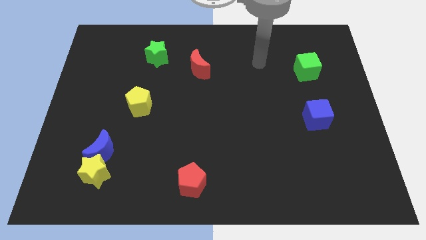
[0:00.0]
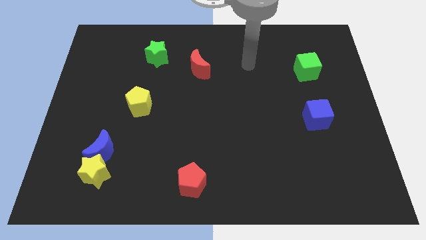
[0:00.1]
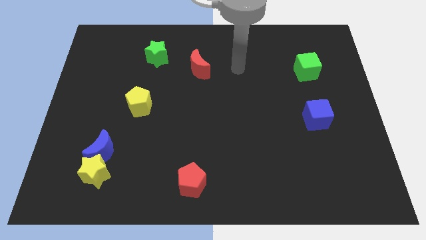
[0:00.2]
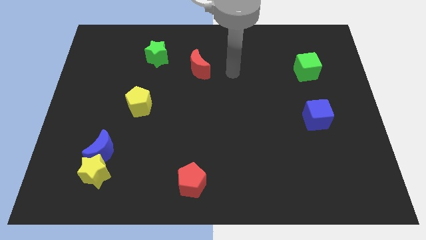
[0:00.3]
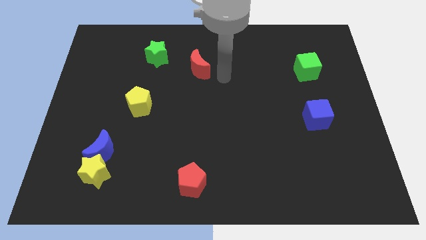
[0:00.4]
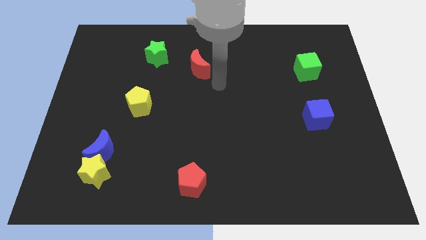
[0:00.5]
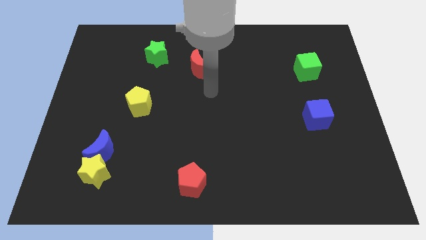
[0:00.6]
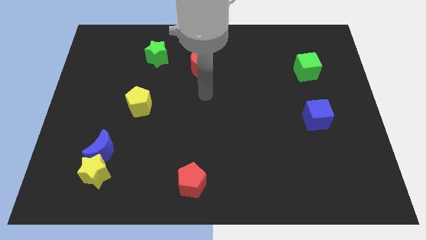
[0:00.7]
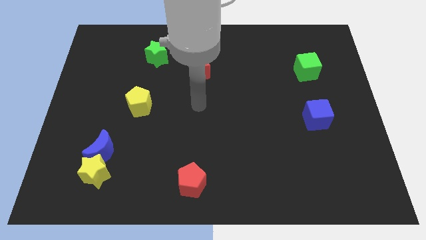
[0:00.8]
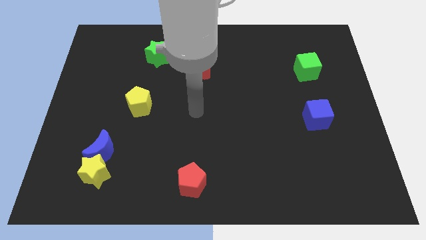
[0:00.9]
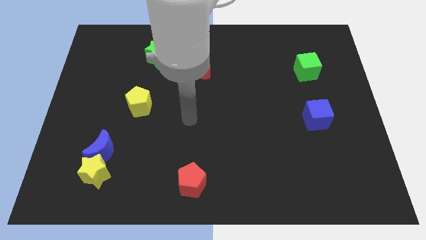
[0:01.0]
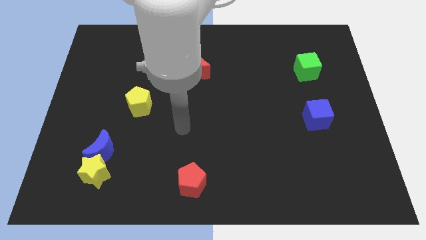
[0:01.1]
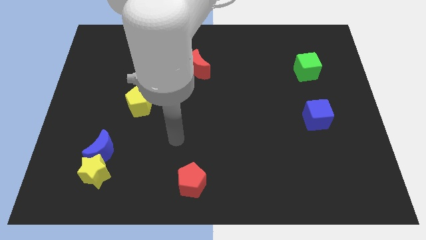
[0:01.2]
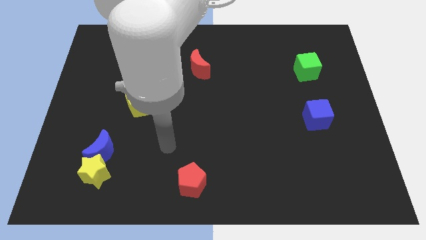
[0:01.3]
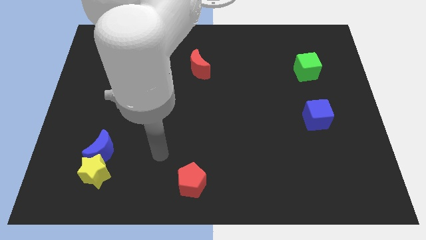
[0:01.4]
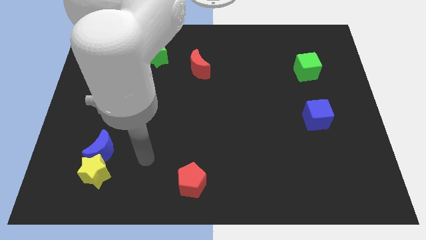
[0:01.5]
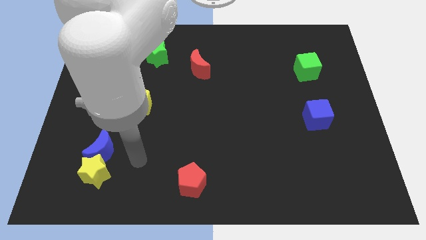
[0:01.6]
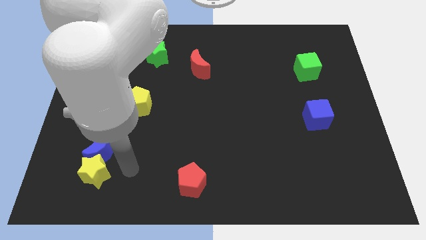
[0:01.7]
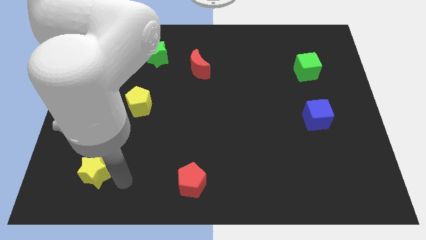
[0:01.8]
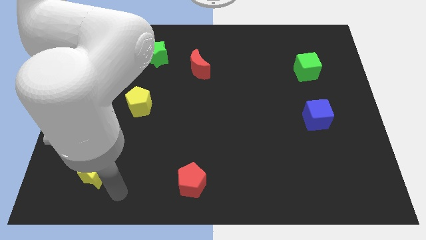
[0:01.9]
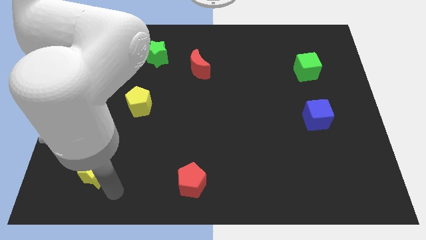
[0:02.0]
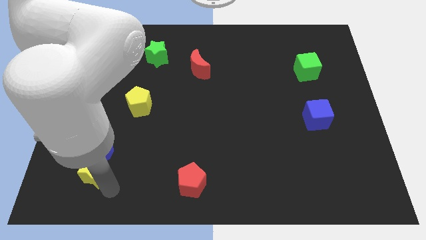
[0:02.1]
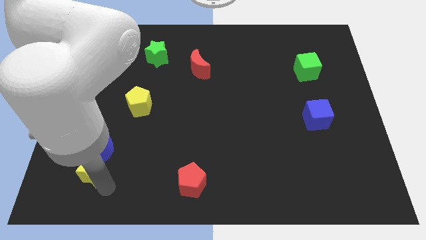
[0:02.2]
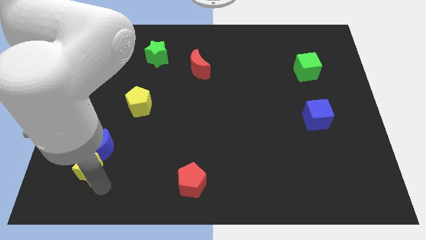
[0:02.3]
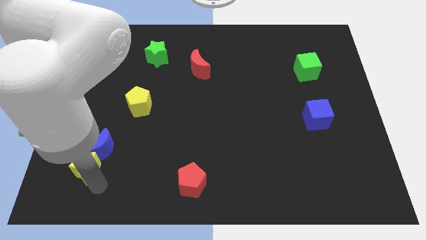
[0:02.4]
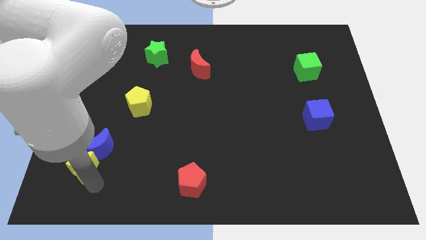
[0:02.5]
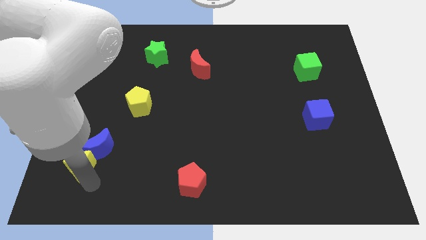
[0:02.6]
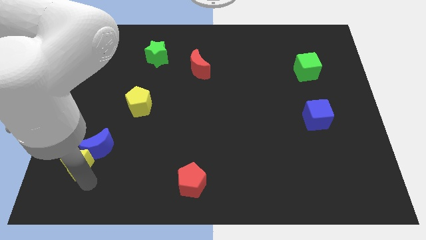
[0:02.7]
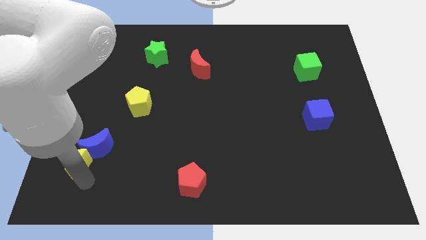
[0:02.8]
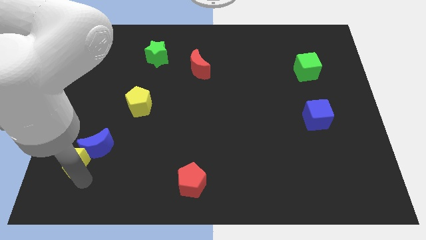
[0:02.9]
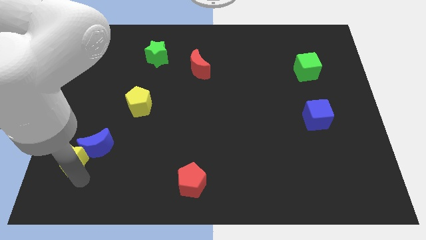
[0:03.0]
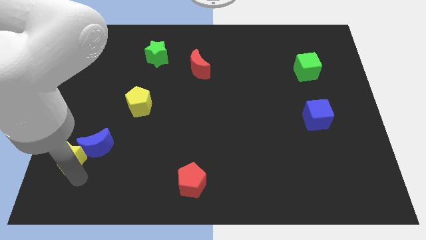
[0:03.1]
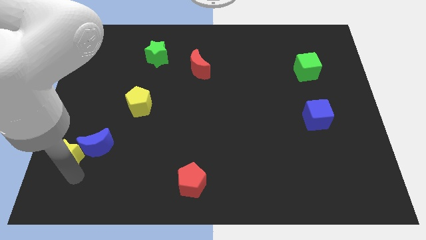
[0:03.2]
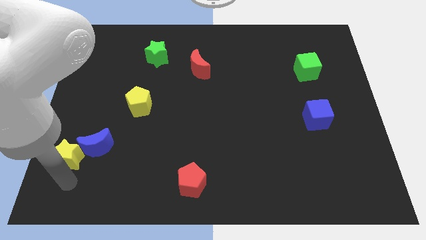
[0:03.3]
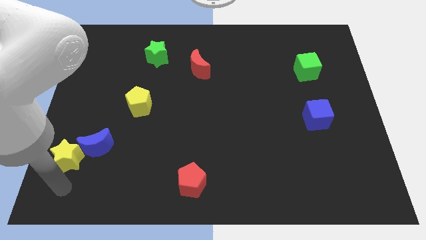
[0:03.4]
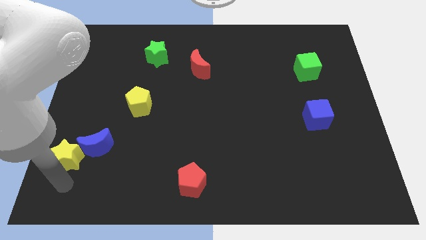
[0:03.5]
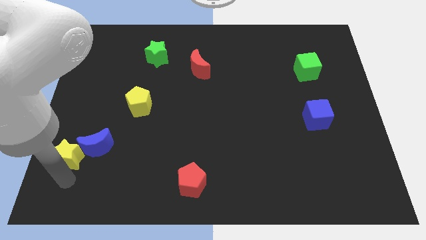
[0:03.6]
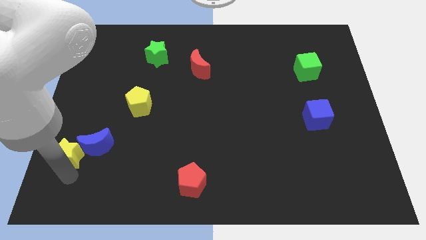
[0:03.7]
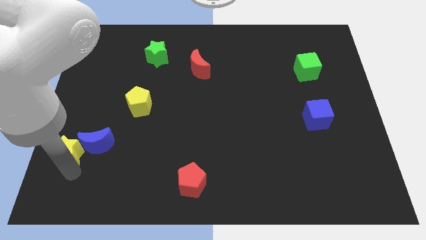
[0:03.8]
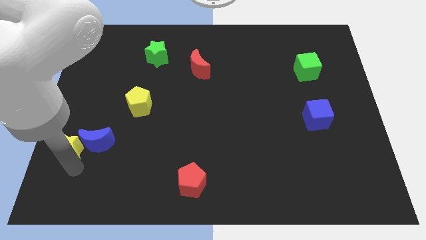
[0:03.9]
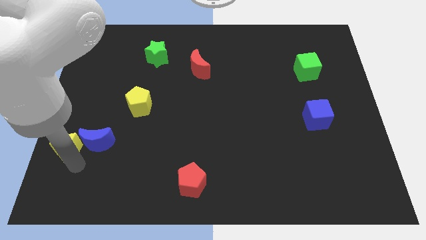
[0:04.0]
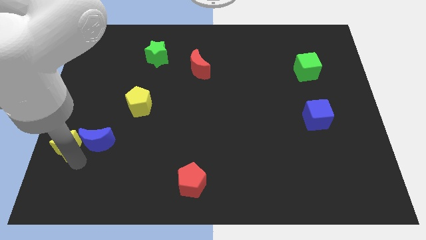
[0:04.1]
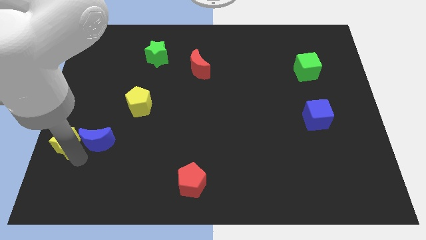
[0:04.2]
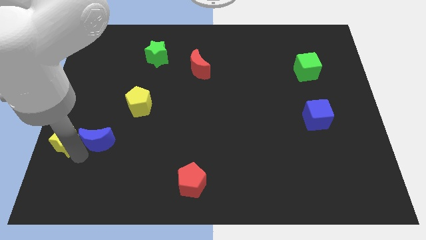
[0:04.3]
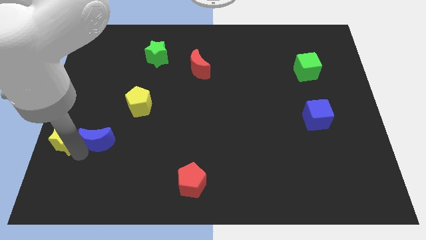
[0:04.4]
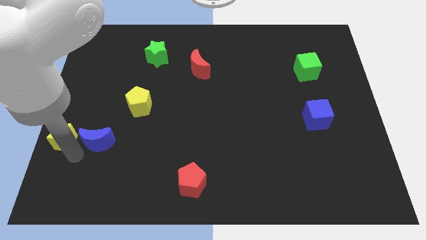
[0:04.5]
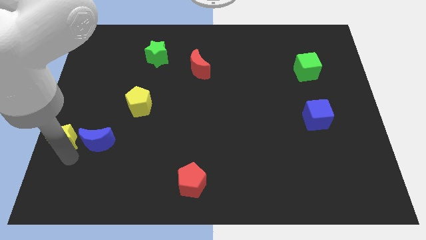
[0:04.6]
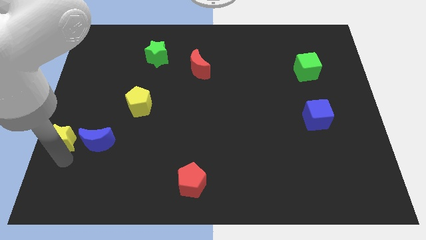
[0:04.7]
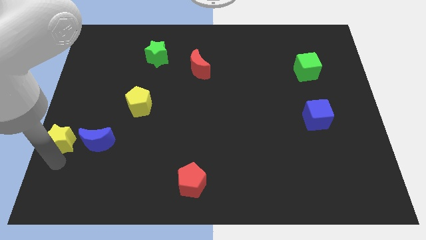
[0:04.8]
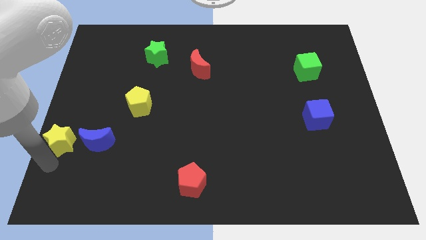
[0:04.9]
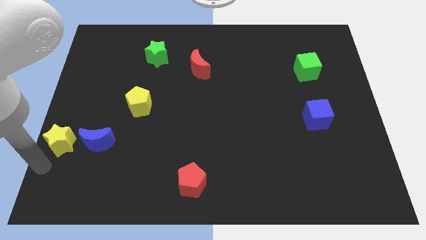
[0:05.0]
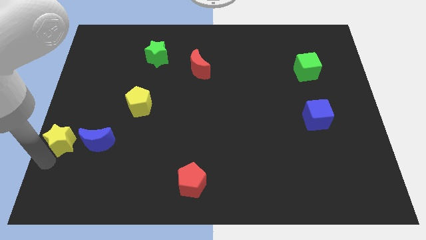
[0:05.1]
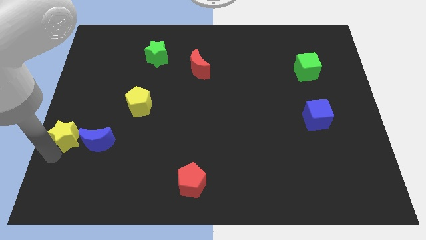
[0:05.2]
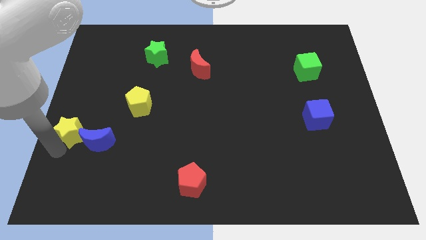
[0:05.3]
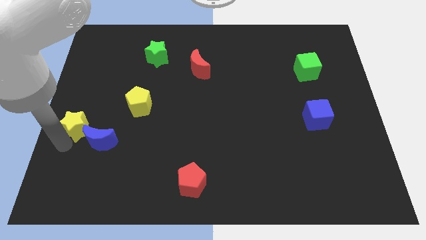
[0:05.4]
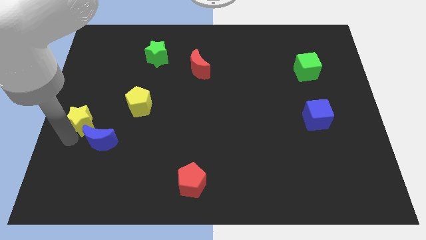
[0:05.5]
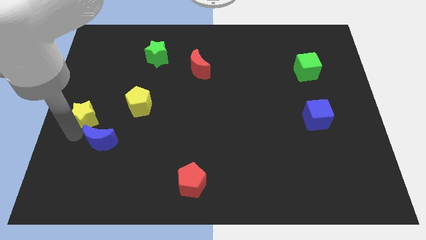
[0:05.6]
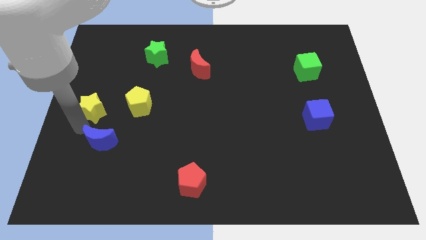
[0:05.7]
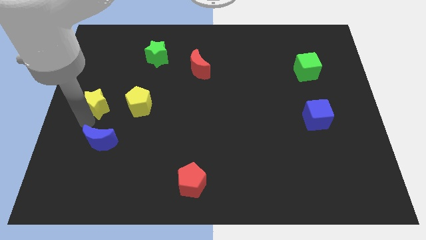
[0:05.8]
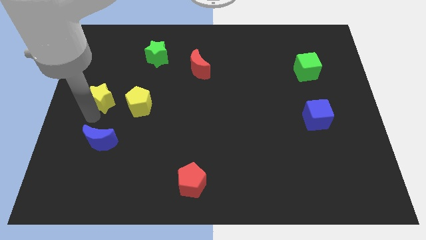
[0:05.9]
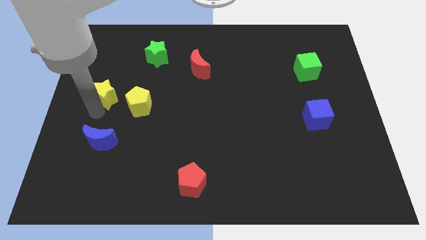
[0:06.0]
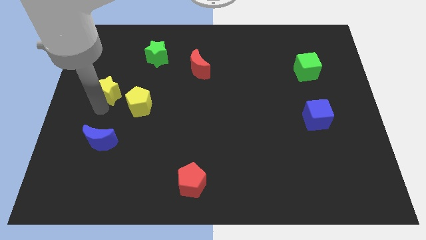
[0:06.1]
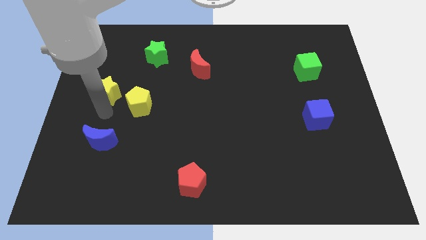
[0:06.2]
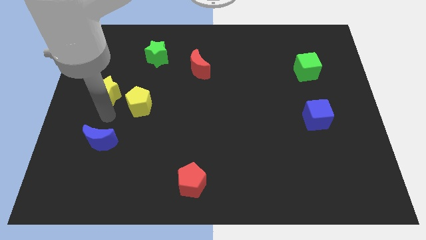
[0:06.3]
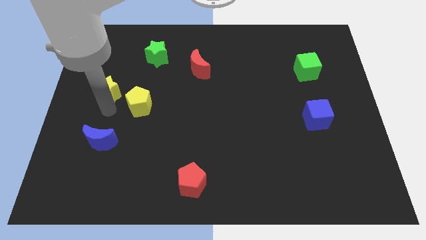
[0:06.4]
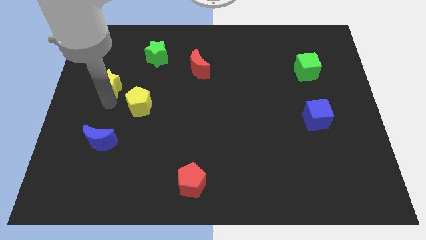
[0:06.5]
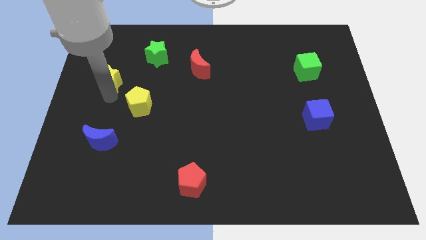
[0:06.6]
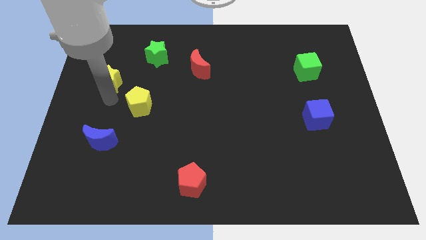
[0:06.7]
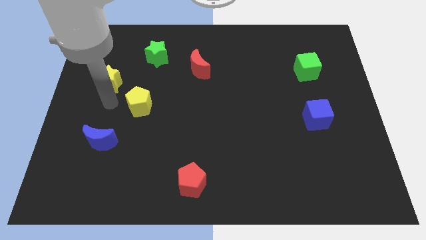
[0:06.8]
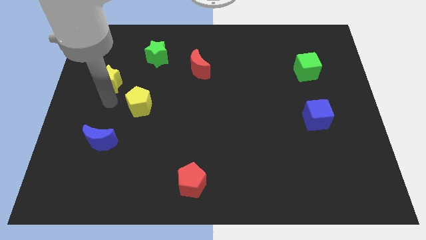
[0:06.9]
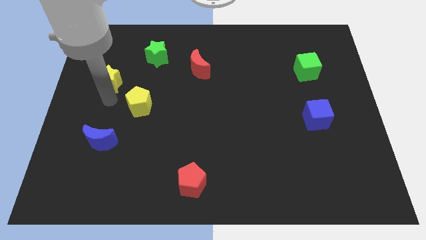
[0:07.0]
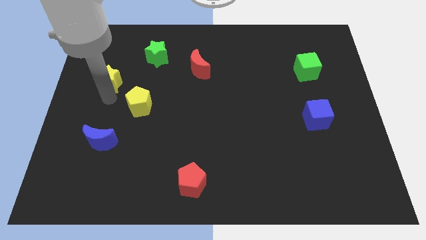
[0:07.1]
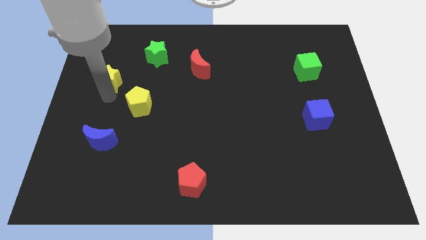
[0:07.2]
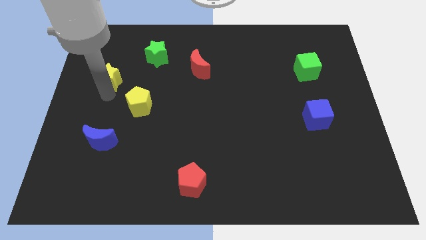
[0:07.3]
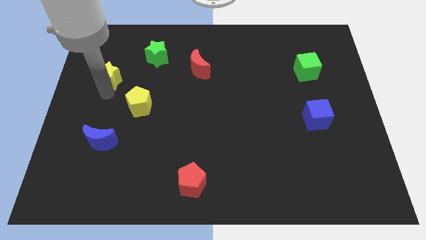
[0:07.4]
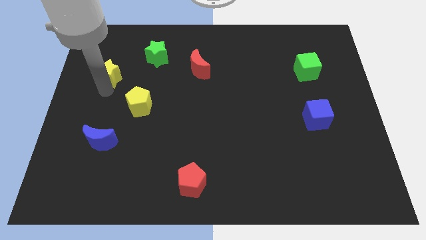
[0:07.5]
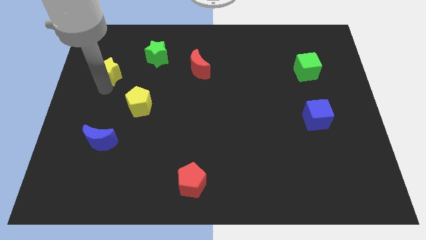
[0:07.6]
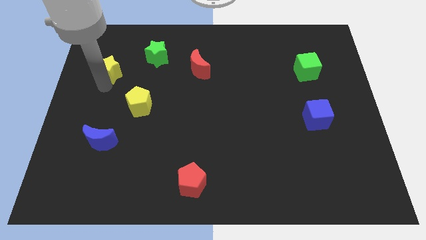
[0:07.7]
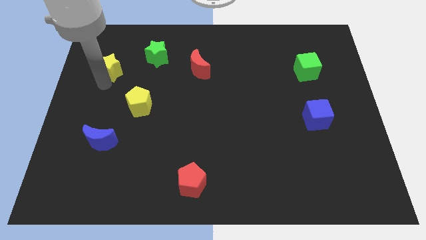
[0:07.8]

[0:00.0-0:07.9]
put the yellow star left of the green star
